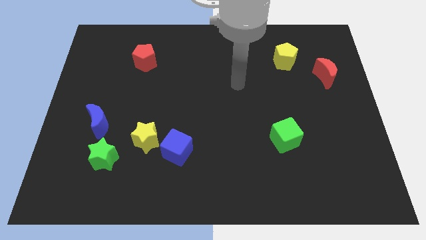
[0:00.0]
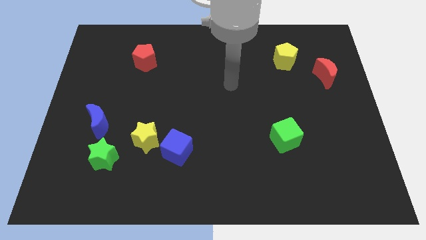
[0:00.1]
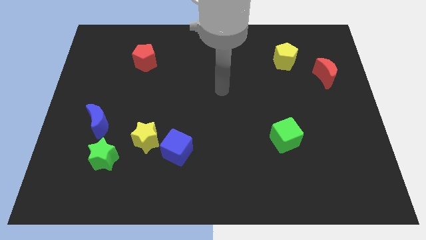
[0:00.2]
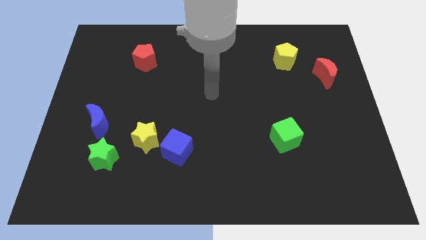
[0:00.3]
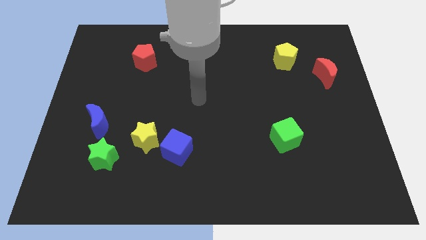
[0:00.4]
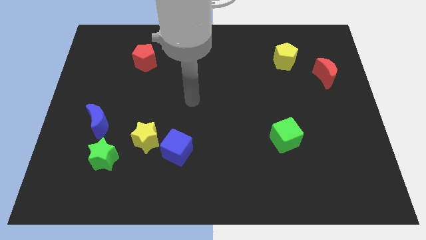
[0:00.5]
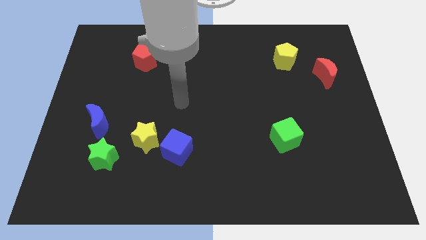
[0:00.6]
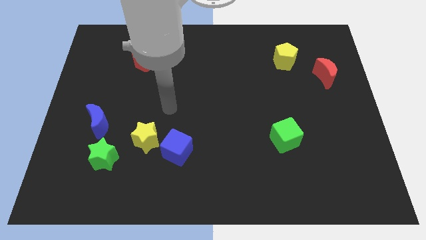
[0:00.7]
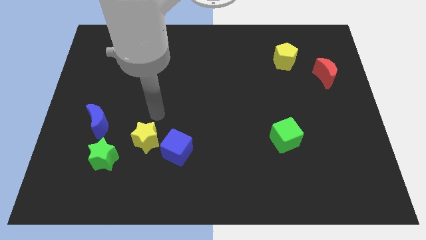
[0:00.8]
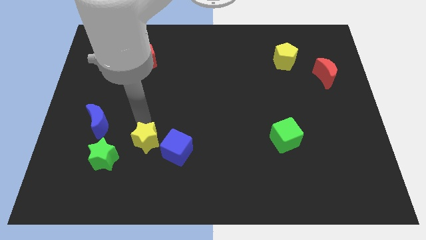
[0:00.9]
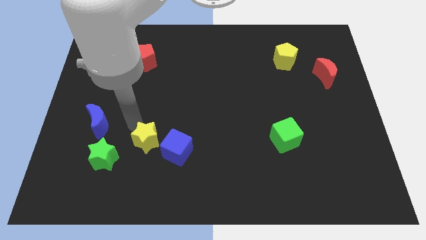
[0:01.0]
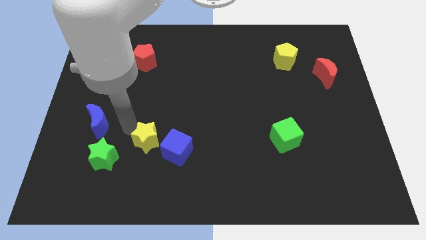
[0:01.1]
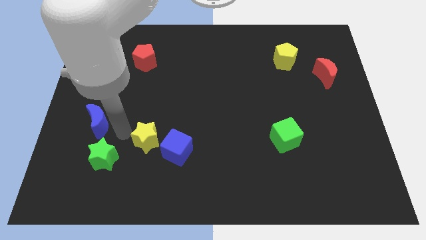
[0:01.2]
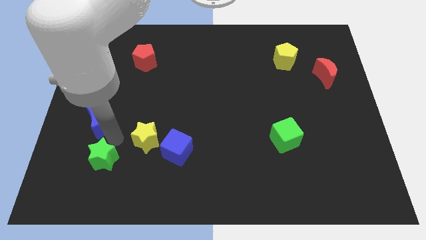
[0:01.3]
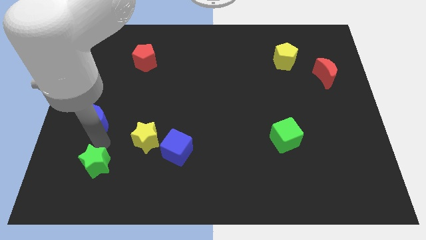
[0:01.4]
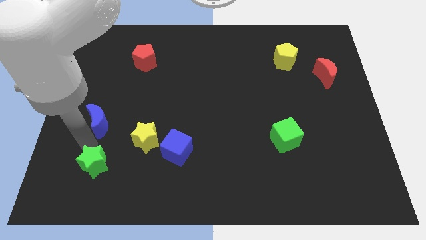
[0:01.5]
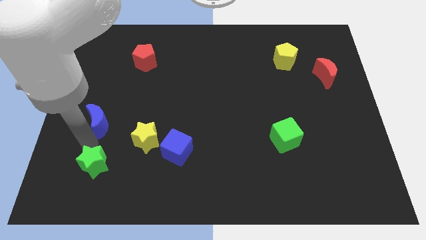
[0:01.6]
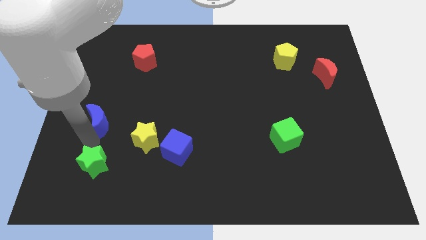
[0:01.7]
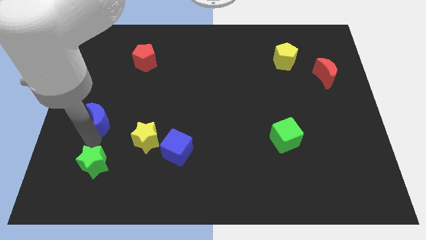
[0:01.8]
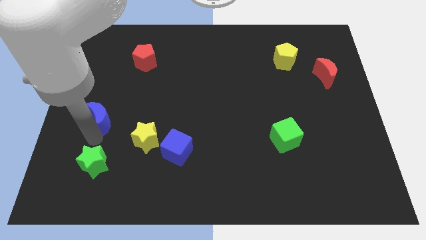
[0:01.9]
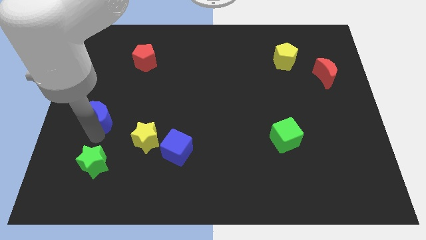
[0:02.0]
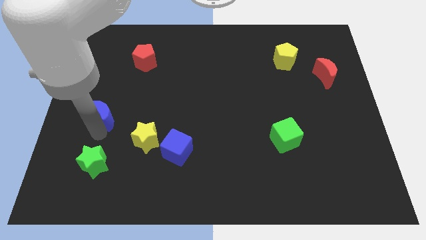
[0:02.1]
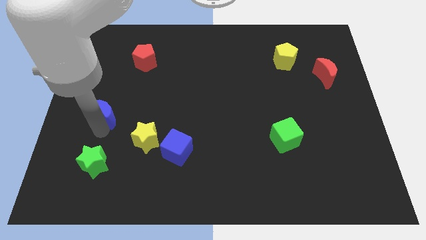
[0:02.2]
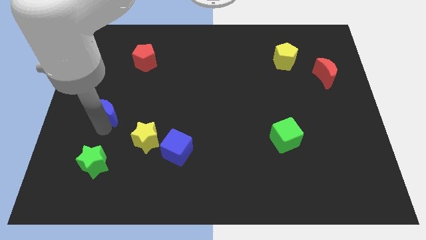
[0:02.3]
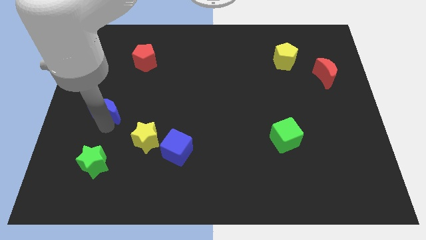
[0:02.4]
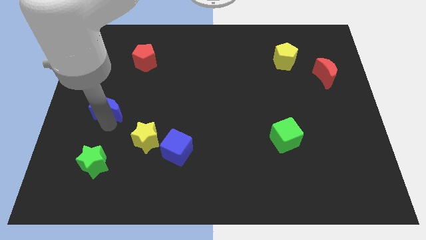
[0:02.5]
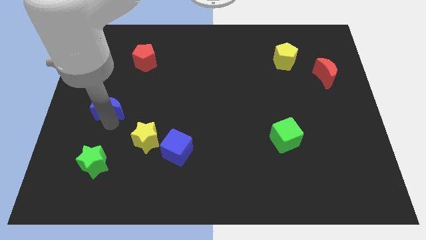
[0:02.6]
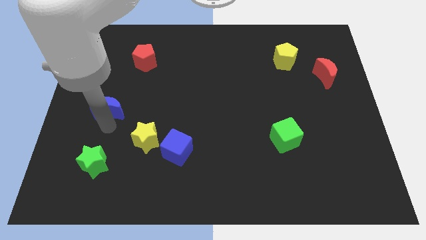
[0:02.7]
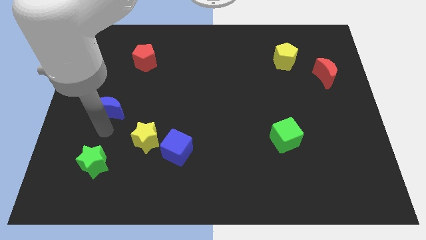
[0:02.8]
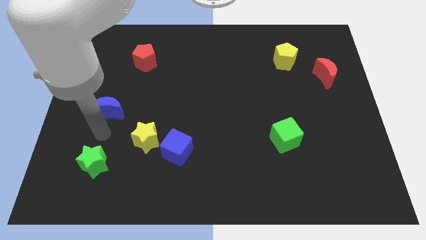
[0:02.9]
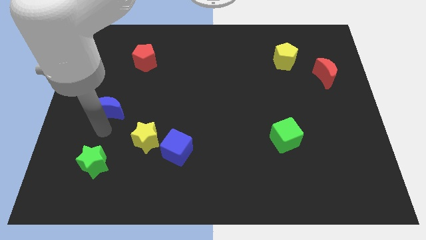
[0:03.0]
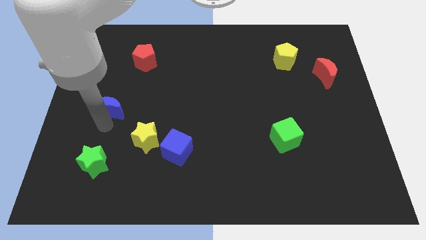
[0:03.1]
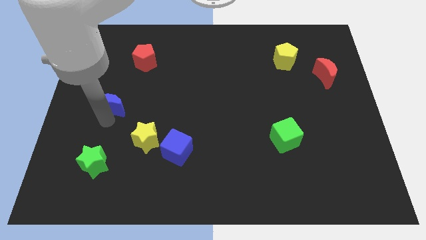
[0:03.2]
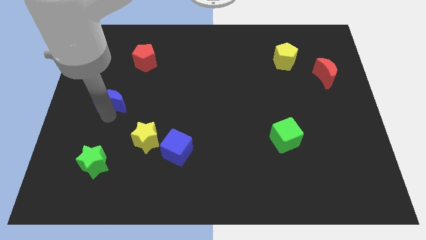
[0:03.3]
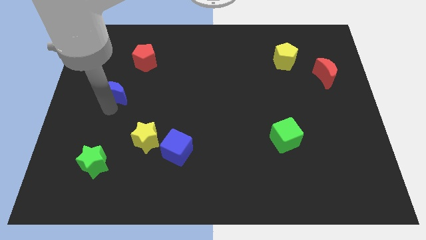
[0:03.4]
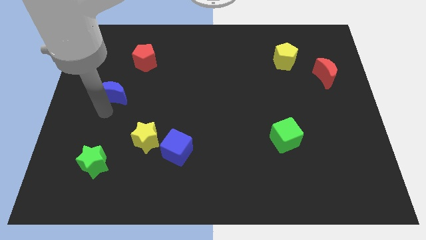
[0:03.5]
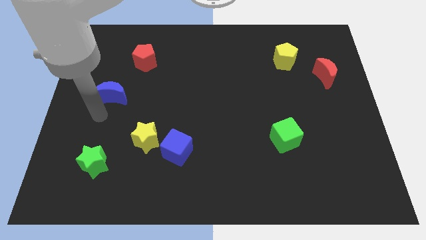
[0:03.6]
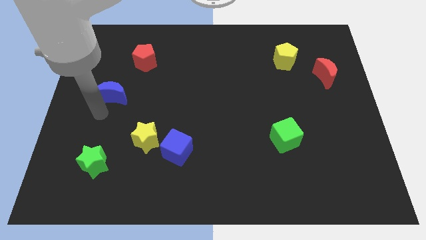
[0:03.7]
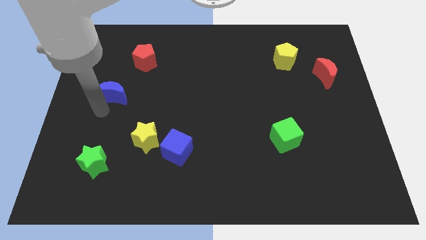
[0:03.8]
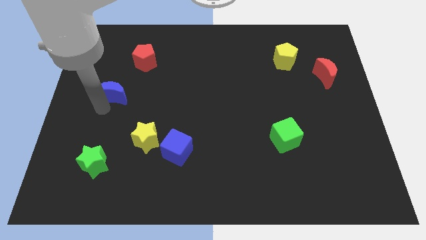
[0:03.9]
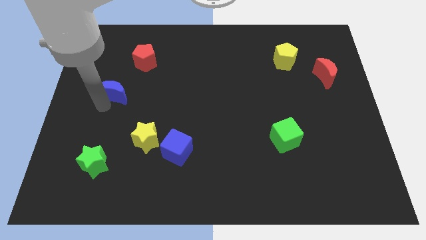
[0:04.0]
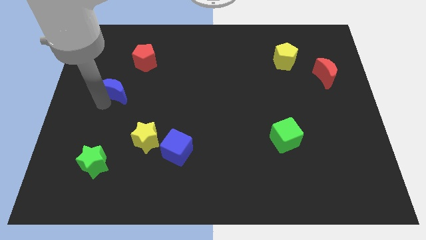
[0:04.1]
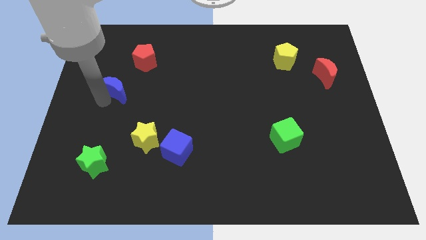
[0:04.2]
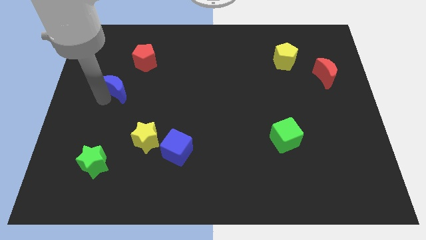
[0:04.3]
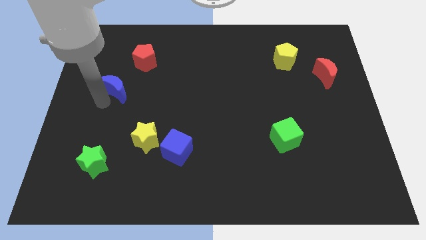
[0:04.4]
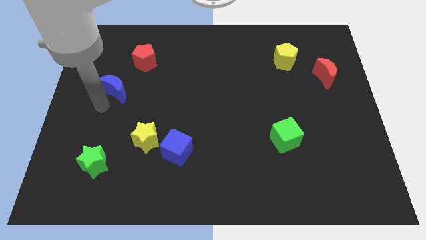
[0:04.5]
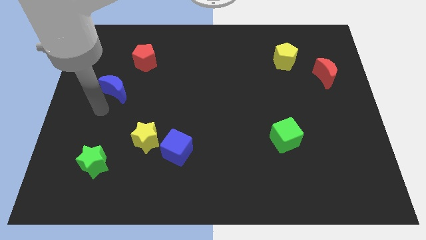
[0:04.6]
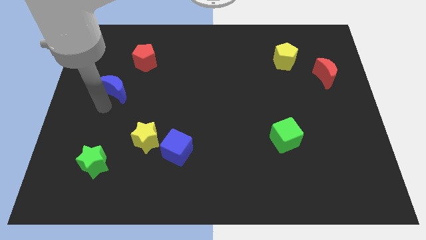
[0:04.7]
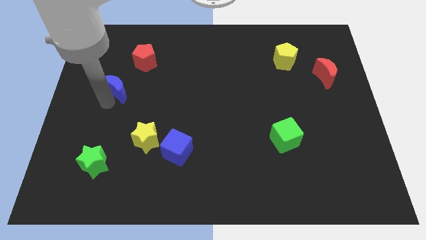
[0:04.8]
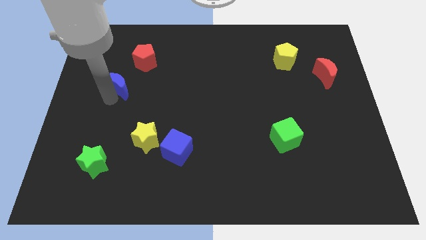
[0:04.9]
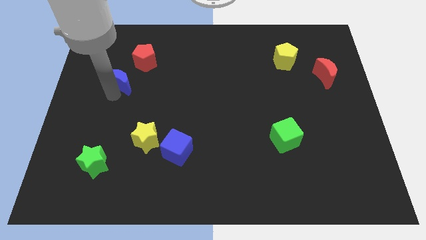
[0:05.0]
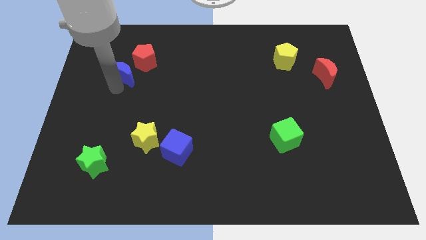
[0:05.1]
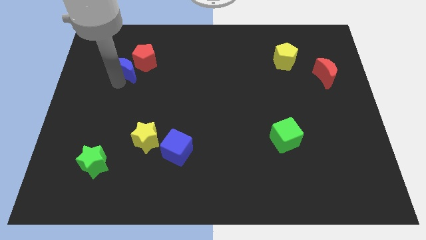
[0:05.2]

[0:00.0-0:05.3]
move the blue moon to the red pentagon

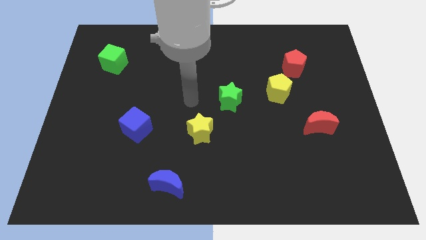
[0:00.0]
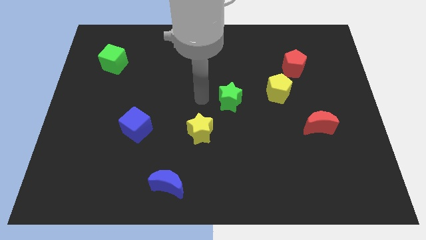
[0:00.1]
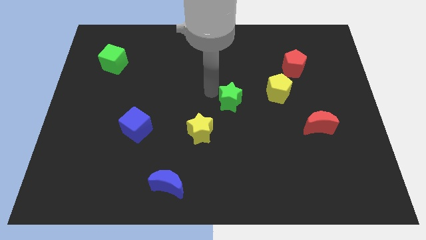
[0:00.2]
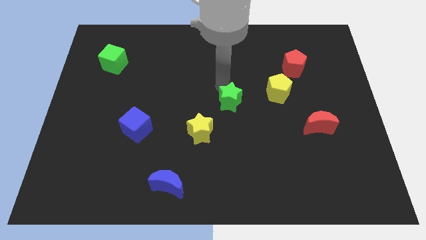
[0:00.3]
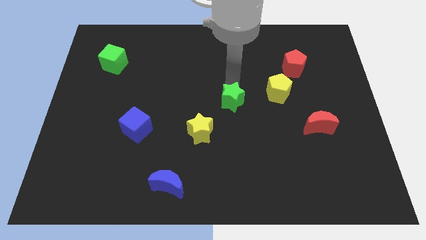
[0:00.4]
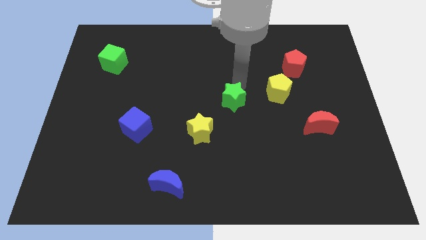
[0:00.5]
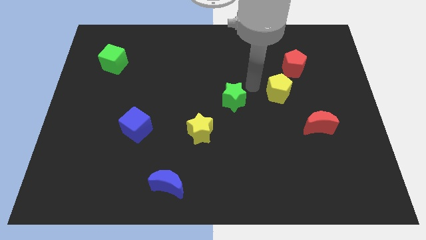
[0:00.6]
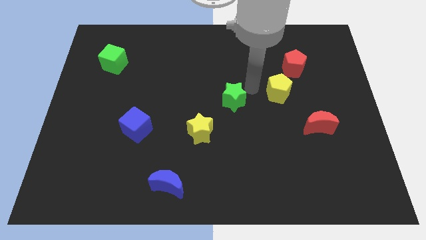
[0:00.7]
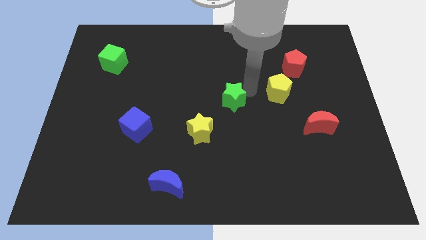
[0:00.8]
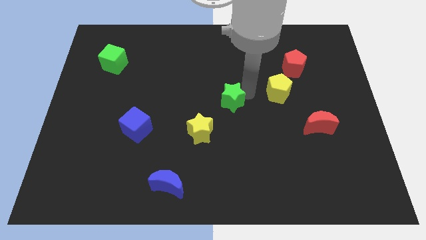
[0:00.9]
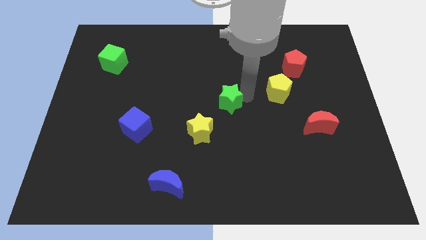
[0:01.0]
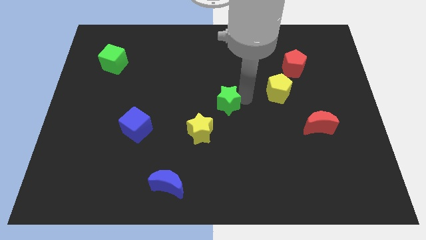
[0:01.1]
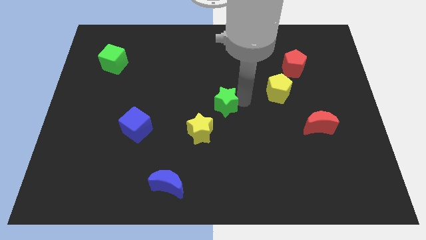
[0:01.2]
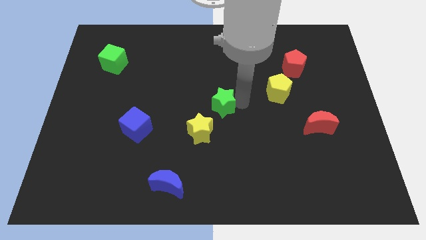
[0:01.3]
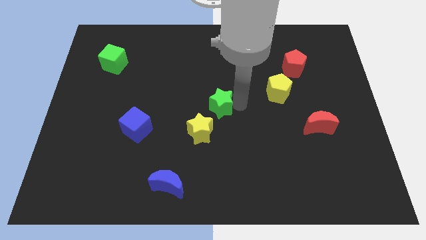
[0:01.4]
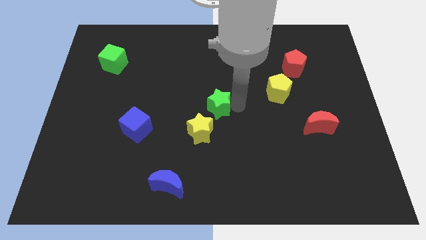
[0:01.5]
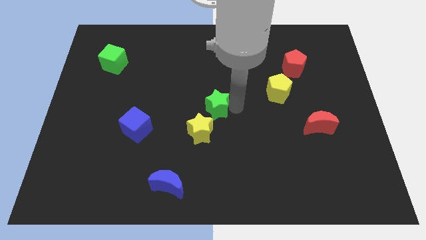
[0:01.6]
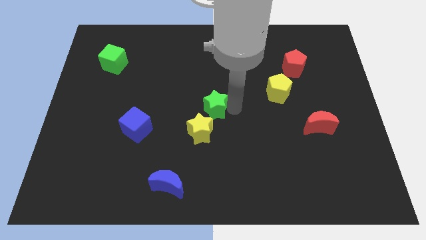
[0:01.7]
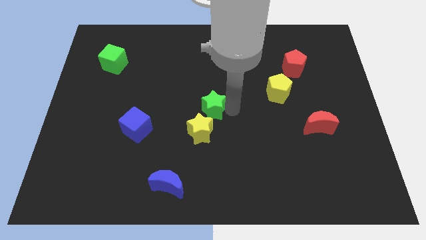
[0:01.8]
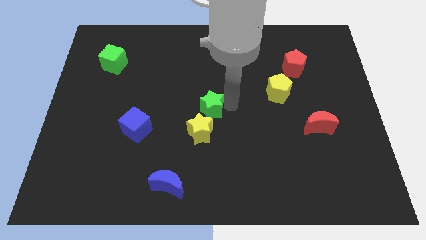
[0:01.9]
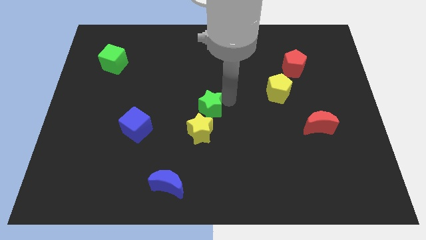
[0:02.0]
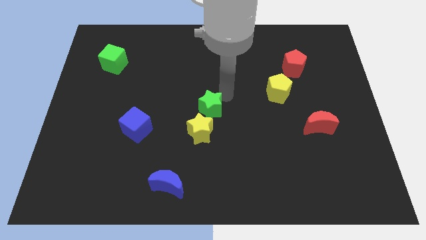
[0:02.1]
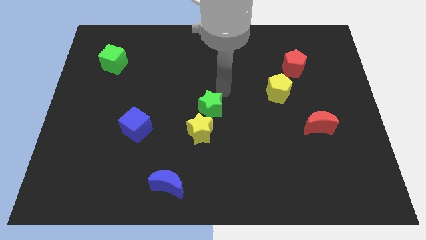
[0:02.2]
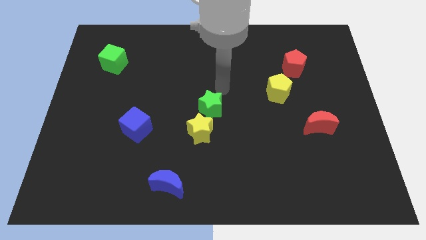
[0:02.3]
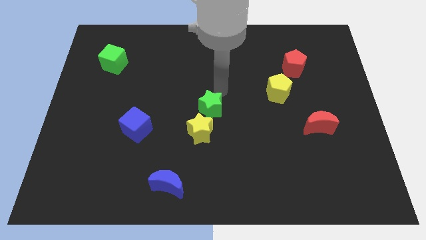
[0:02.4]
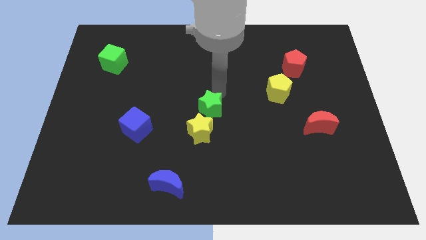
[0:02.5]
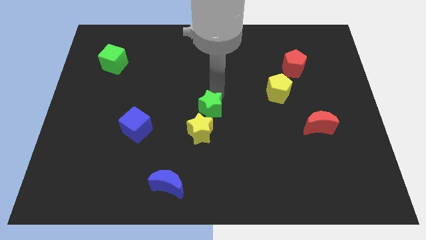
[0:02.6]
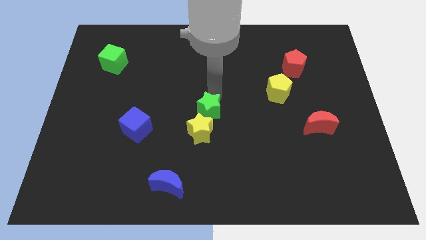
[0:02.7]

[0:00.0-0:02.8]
push the green star towards the yellow star

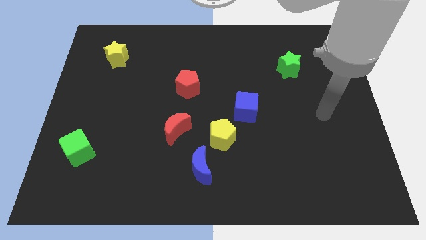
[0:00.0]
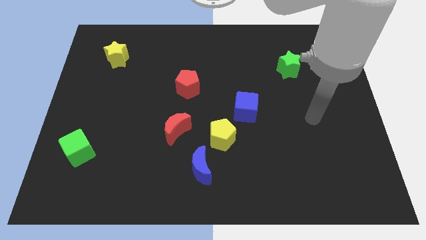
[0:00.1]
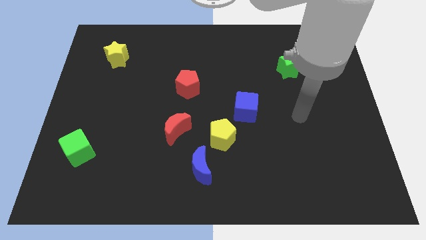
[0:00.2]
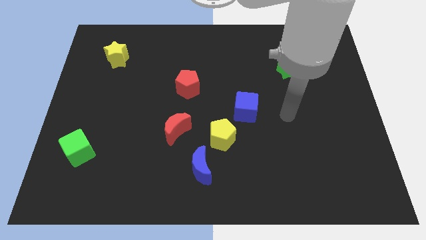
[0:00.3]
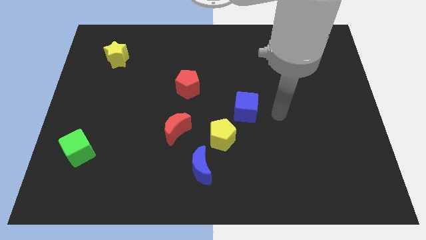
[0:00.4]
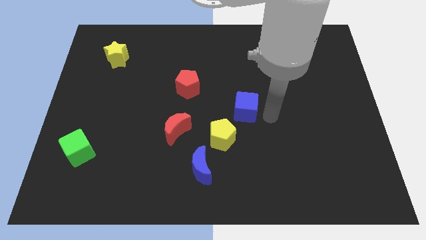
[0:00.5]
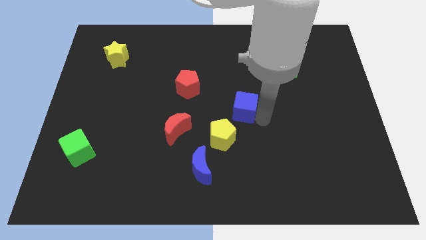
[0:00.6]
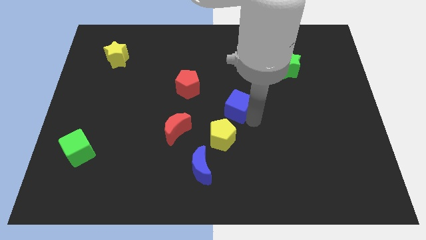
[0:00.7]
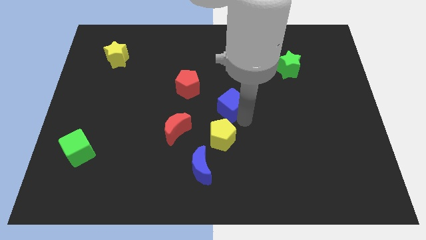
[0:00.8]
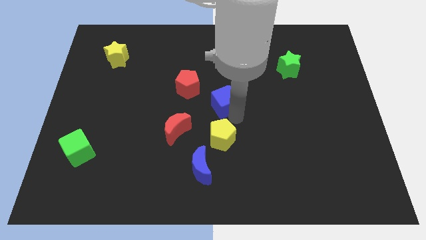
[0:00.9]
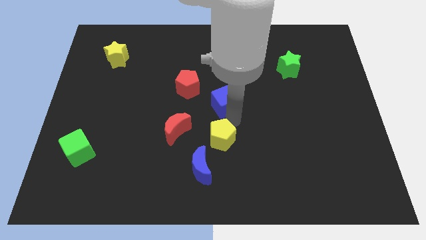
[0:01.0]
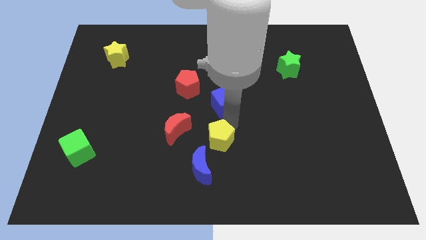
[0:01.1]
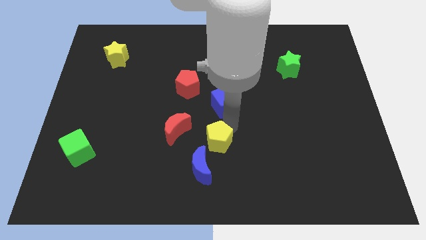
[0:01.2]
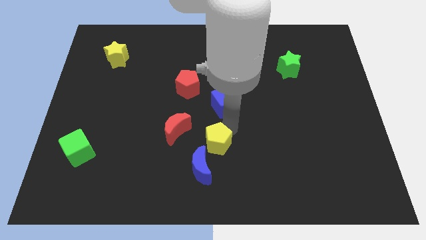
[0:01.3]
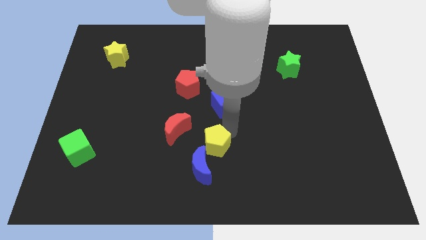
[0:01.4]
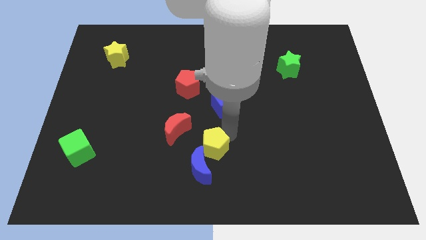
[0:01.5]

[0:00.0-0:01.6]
slide the yellow pentagon towards the blue moon
